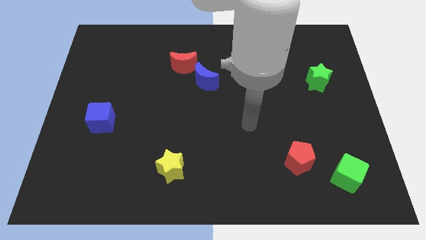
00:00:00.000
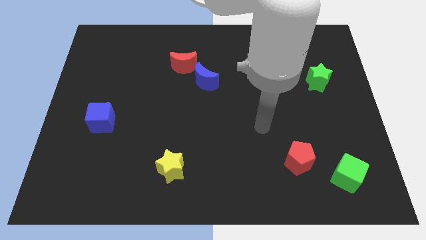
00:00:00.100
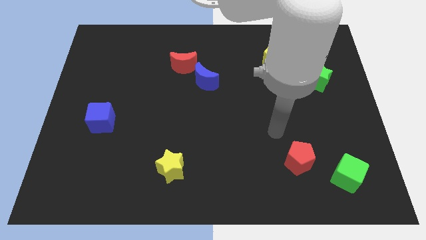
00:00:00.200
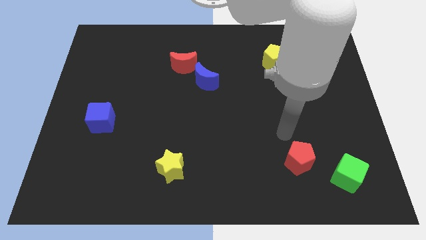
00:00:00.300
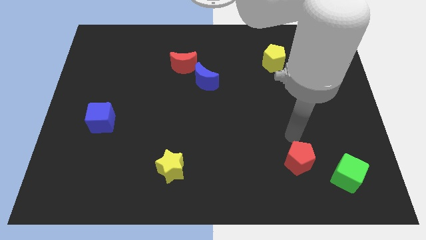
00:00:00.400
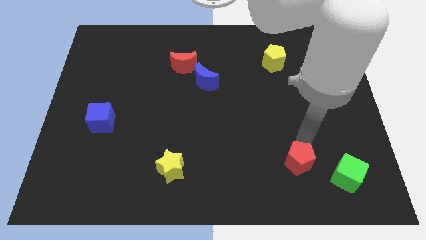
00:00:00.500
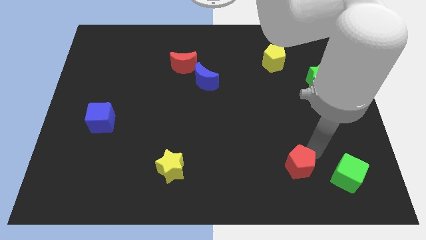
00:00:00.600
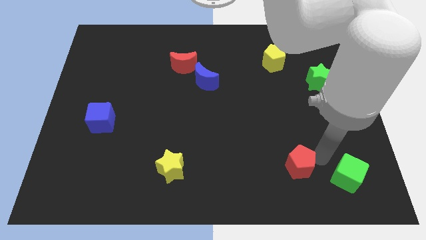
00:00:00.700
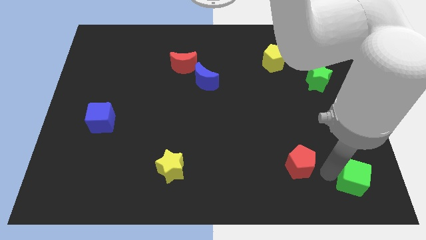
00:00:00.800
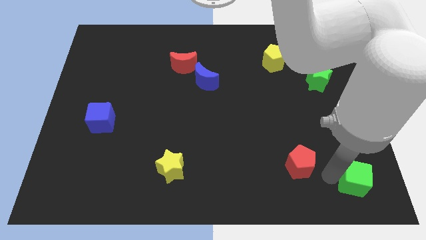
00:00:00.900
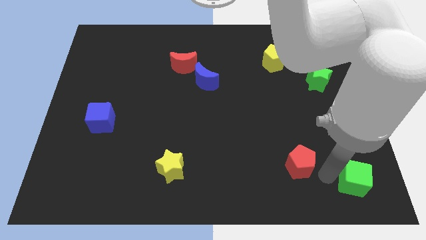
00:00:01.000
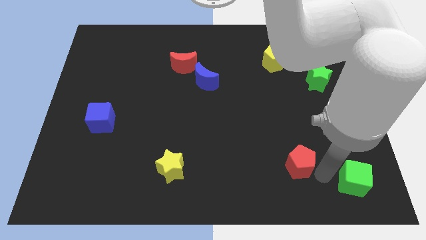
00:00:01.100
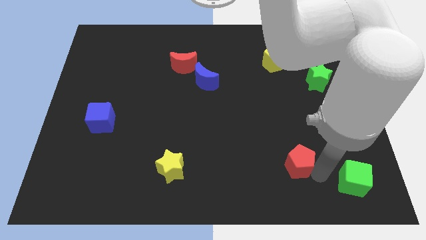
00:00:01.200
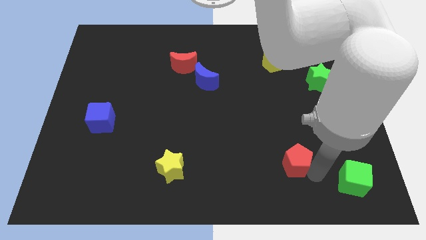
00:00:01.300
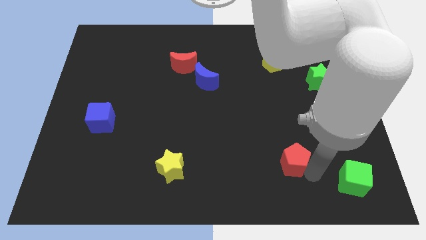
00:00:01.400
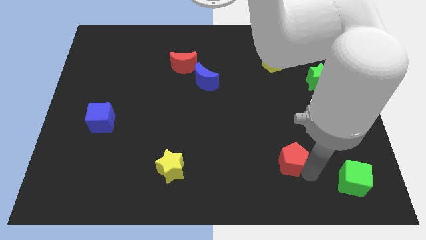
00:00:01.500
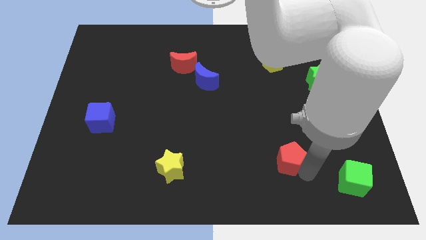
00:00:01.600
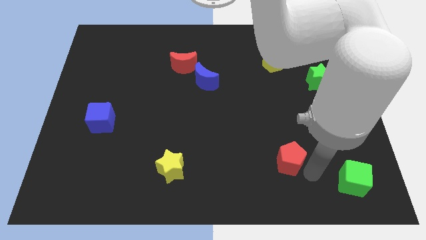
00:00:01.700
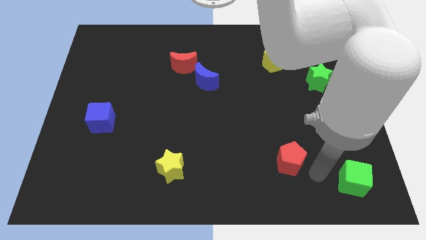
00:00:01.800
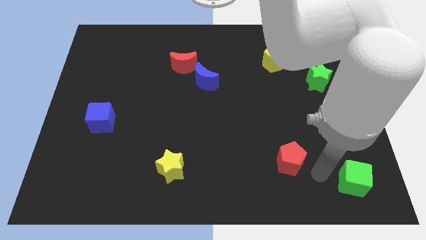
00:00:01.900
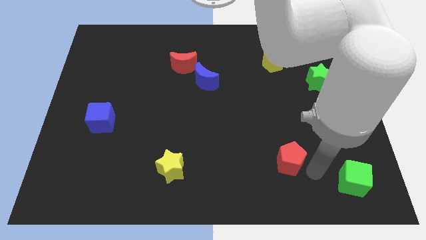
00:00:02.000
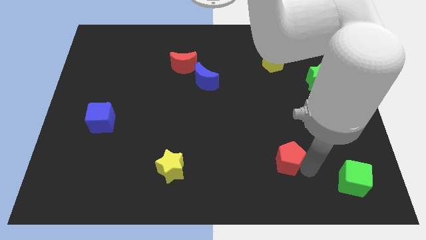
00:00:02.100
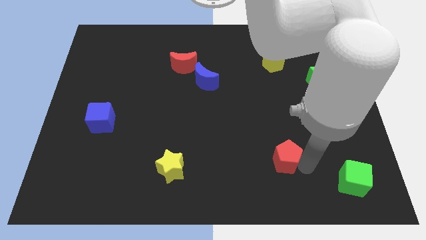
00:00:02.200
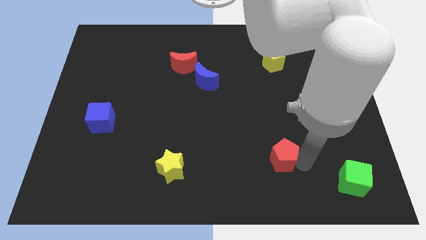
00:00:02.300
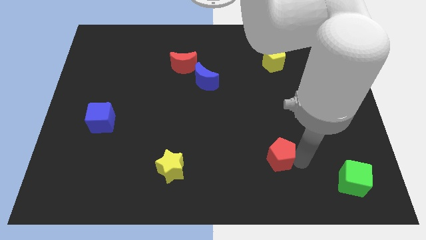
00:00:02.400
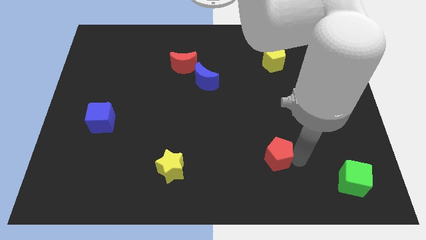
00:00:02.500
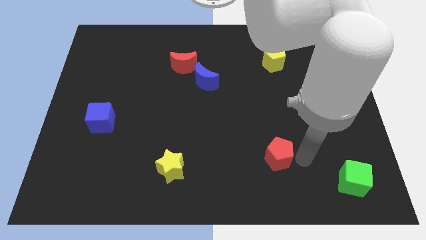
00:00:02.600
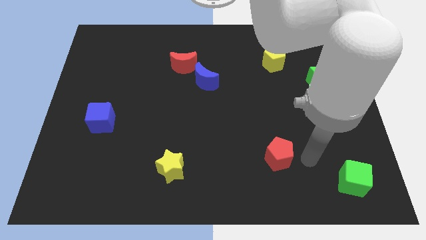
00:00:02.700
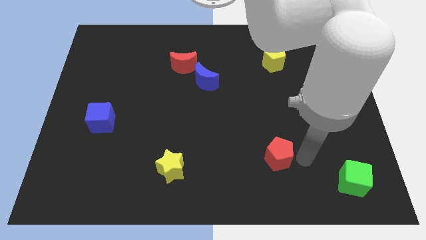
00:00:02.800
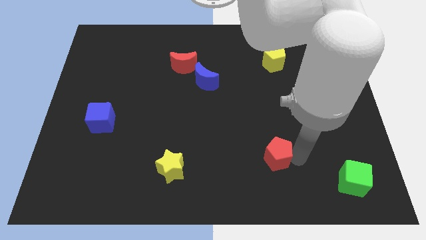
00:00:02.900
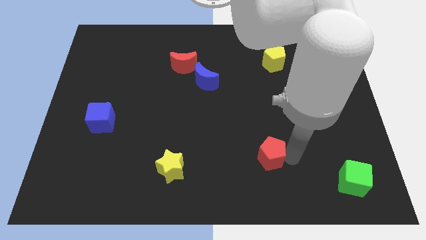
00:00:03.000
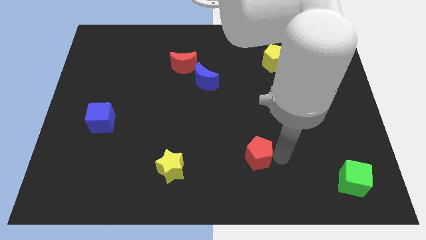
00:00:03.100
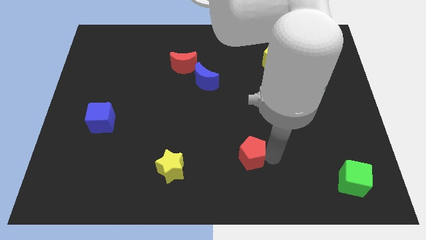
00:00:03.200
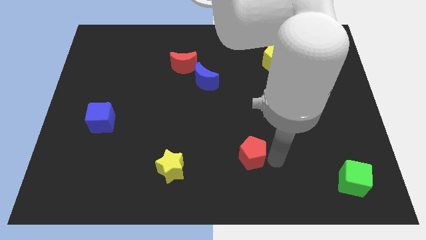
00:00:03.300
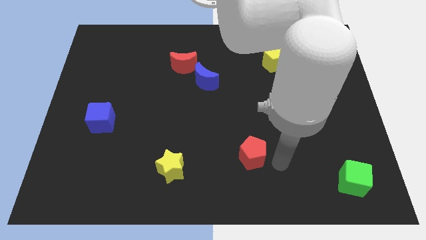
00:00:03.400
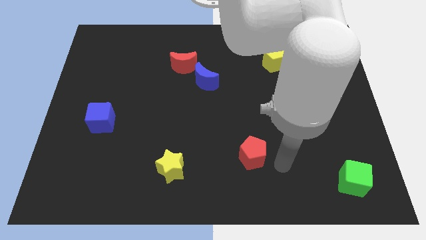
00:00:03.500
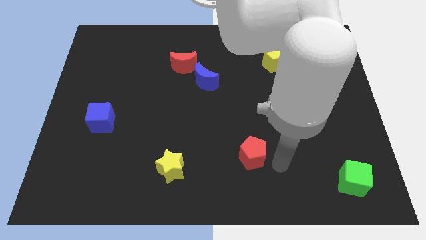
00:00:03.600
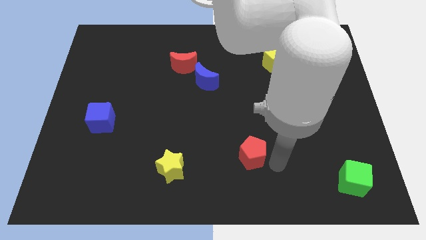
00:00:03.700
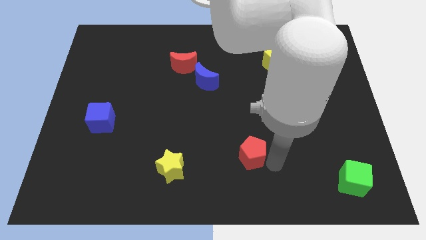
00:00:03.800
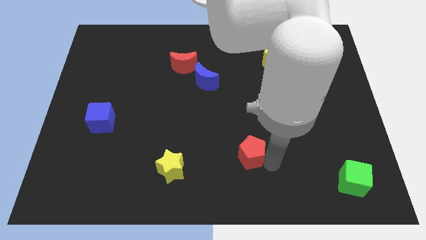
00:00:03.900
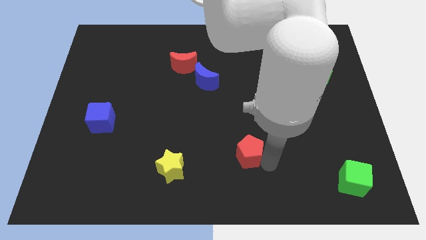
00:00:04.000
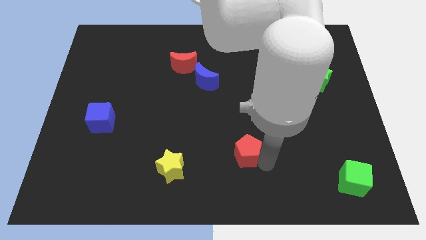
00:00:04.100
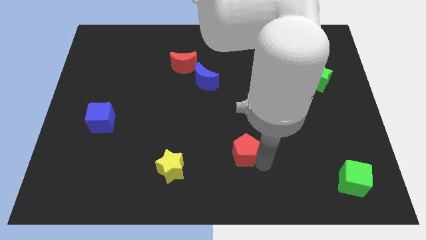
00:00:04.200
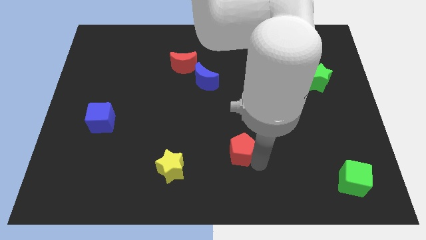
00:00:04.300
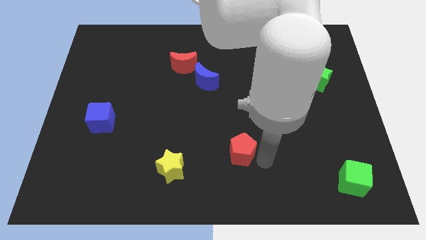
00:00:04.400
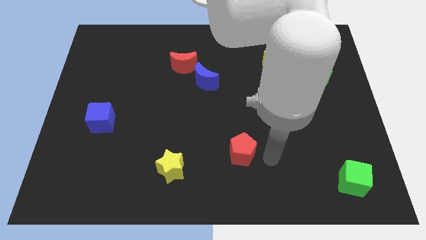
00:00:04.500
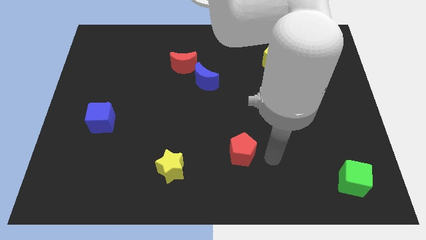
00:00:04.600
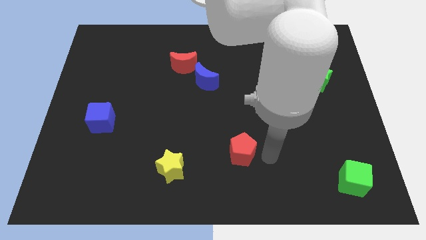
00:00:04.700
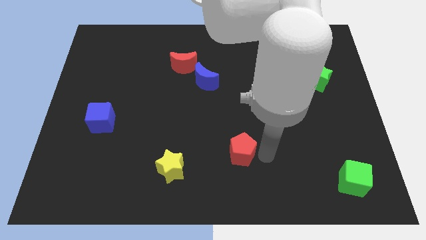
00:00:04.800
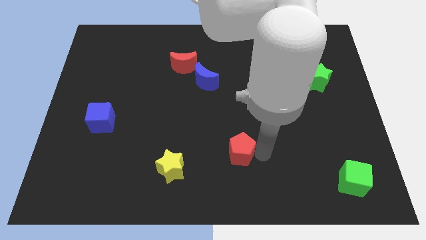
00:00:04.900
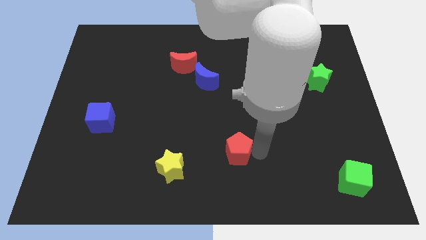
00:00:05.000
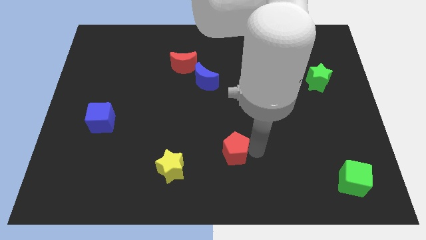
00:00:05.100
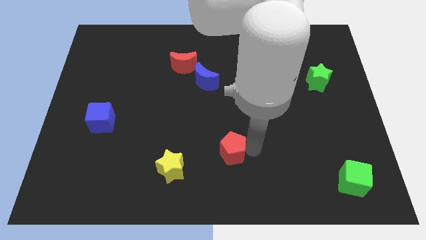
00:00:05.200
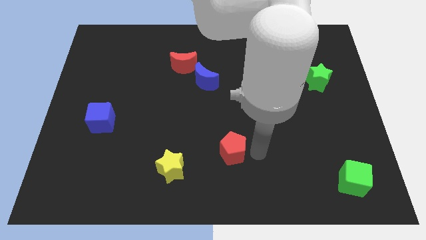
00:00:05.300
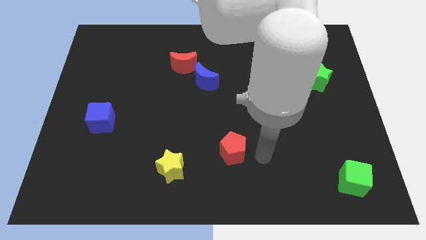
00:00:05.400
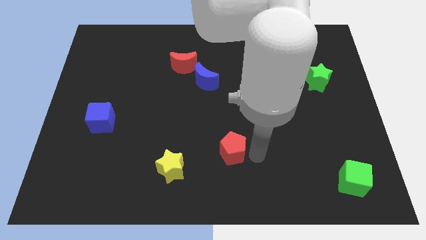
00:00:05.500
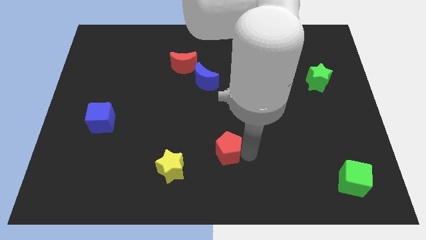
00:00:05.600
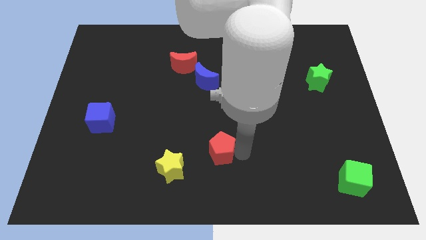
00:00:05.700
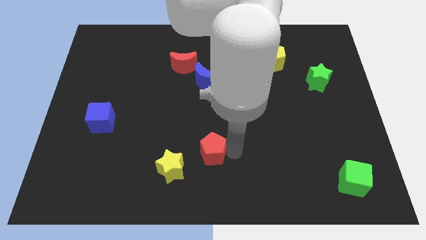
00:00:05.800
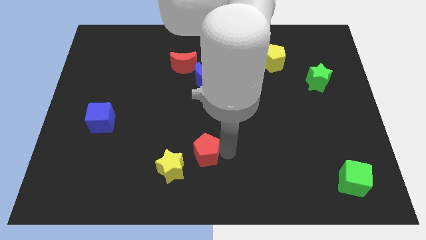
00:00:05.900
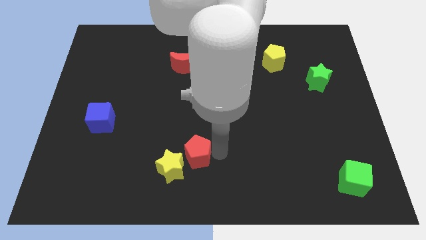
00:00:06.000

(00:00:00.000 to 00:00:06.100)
push the red pentagon left

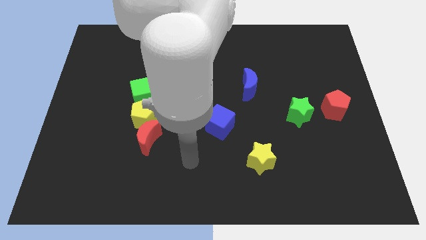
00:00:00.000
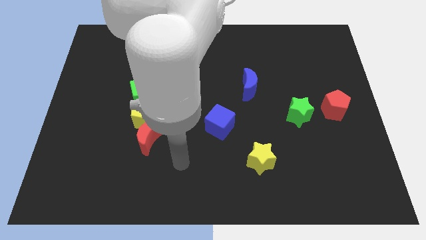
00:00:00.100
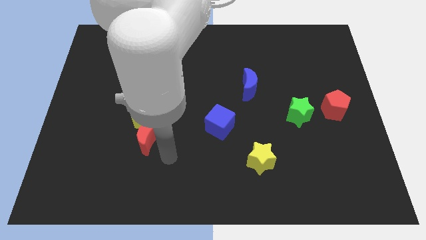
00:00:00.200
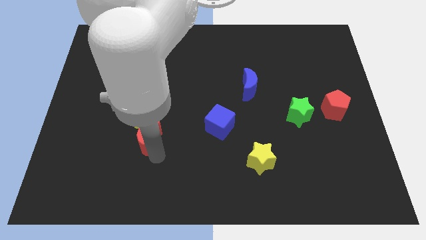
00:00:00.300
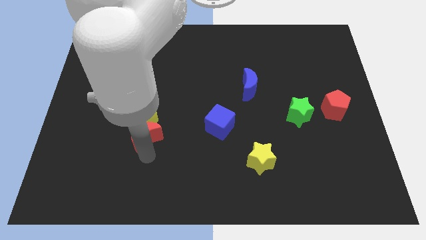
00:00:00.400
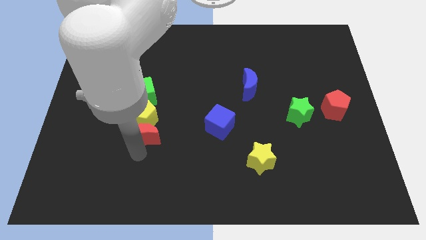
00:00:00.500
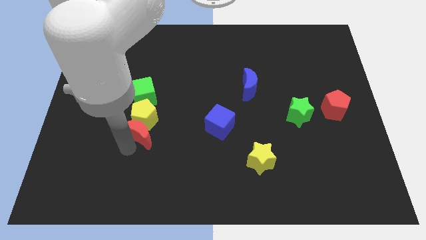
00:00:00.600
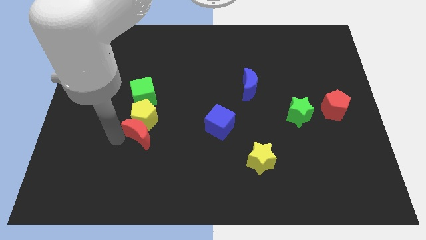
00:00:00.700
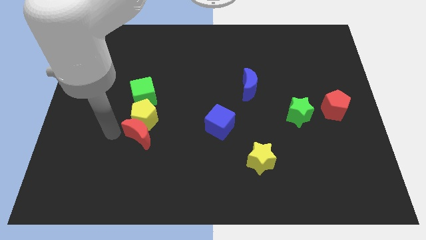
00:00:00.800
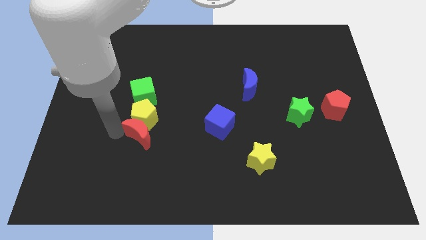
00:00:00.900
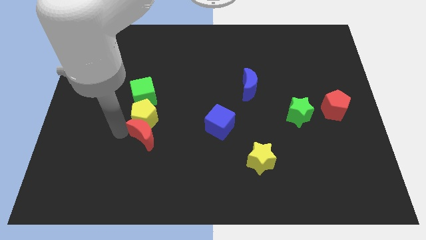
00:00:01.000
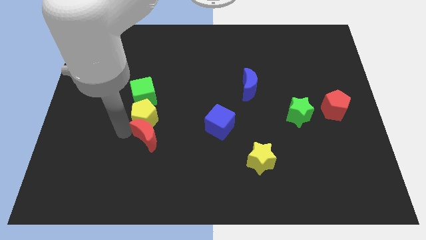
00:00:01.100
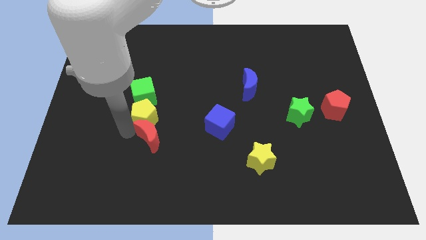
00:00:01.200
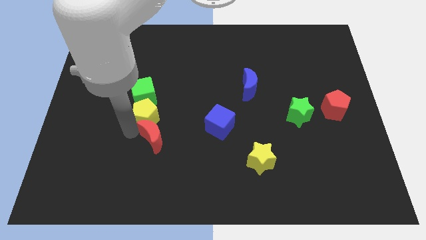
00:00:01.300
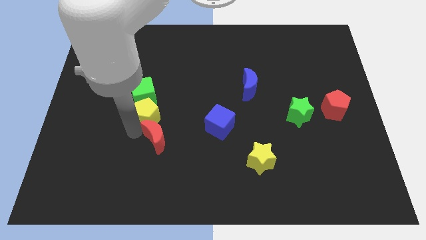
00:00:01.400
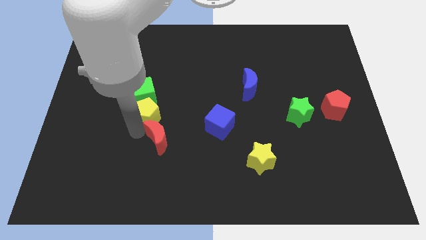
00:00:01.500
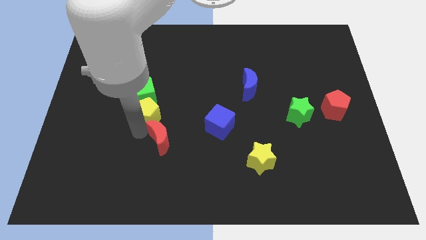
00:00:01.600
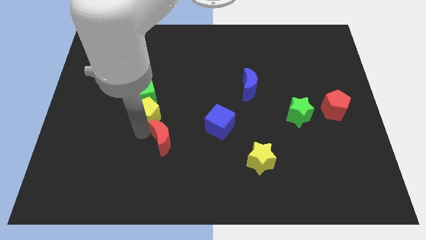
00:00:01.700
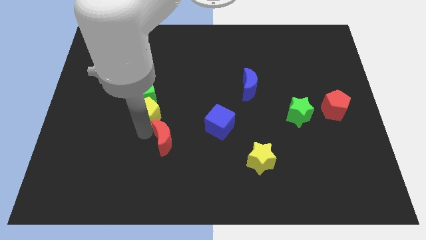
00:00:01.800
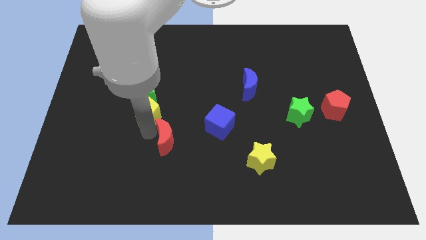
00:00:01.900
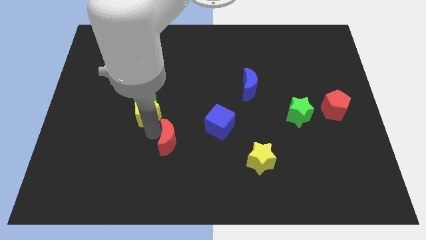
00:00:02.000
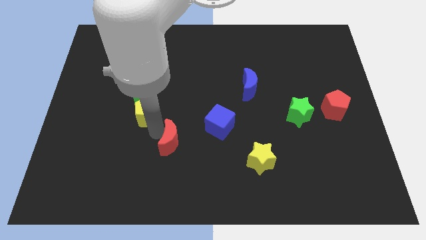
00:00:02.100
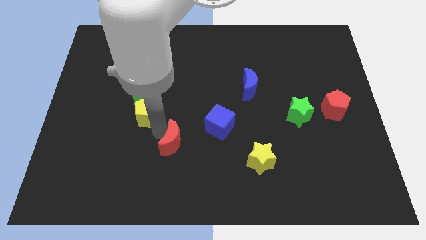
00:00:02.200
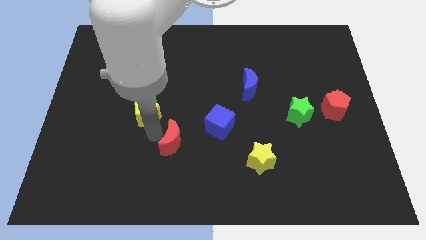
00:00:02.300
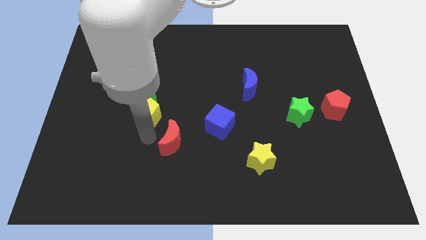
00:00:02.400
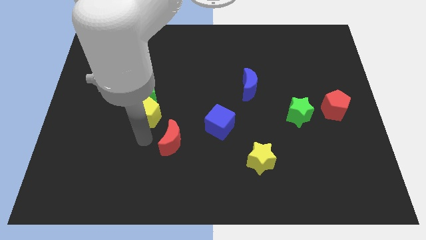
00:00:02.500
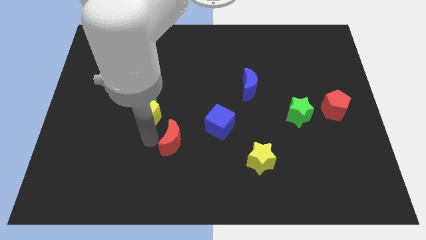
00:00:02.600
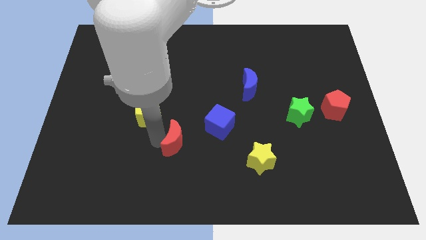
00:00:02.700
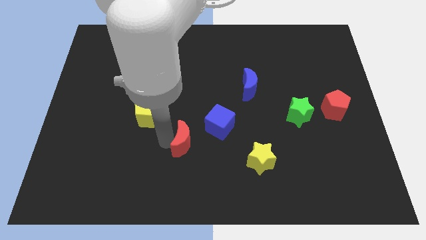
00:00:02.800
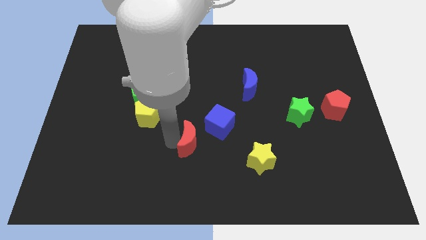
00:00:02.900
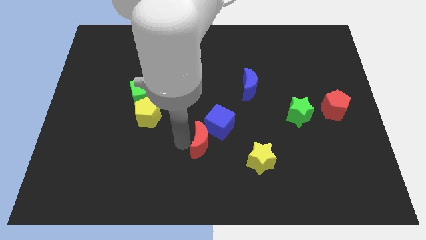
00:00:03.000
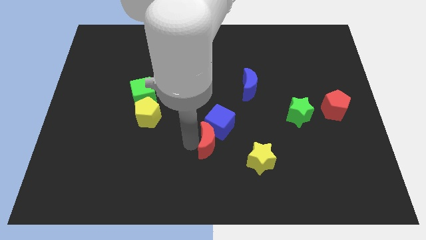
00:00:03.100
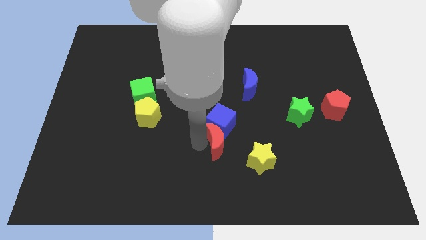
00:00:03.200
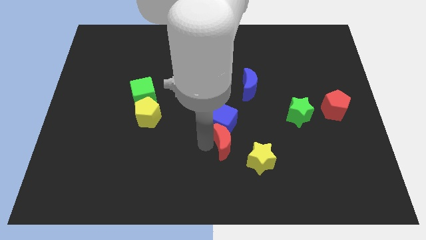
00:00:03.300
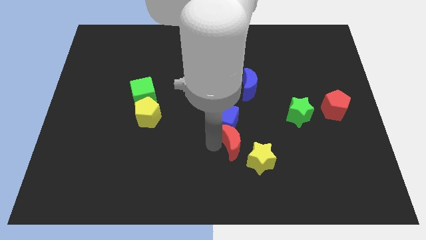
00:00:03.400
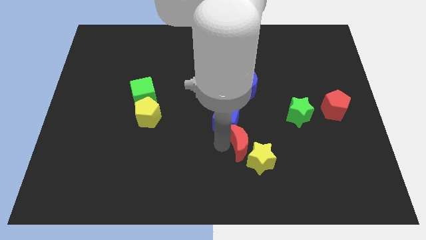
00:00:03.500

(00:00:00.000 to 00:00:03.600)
slide the red moon right
